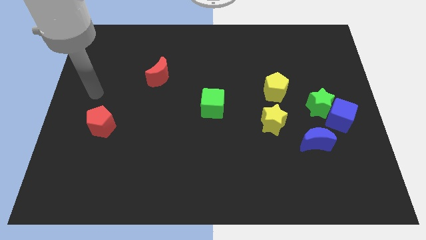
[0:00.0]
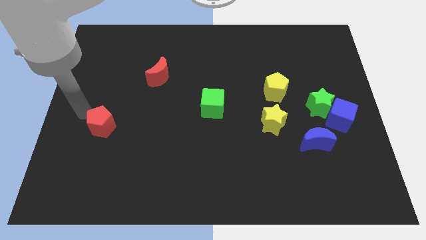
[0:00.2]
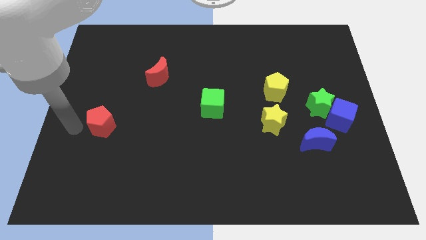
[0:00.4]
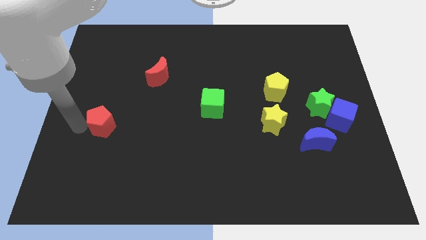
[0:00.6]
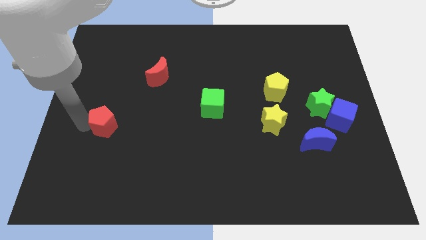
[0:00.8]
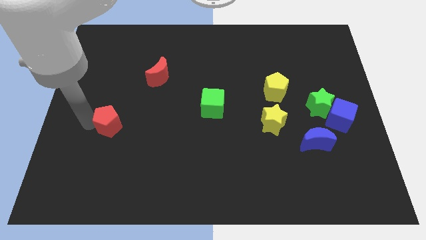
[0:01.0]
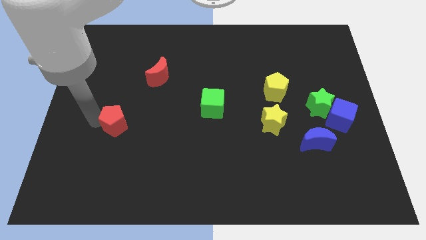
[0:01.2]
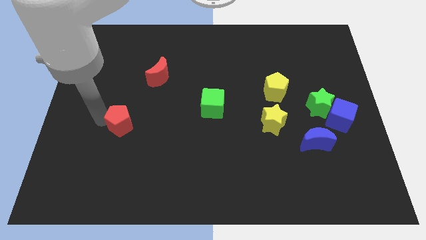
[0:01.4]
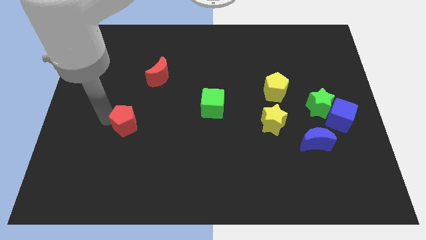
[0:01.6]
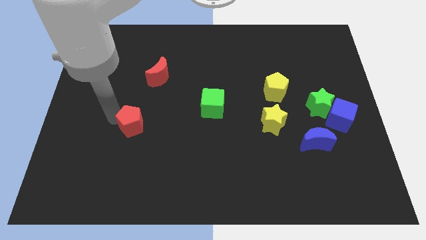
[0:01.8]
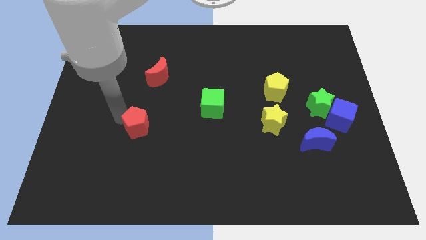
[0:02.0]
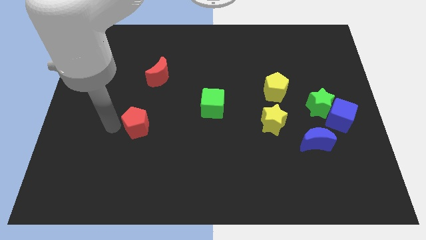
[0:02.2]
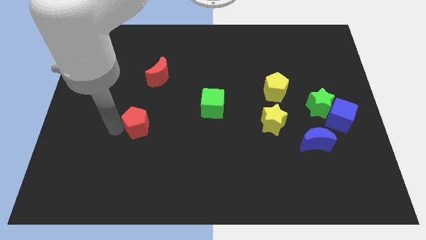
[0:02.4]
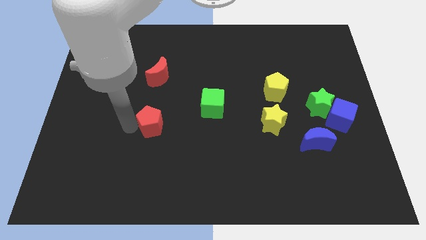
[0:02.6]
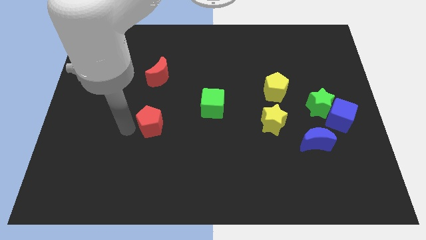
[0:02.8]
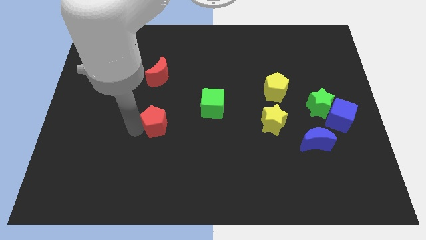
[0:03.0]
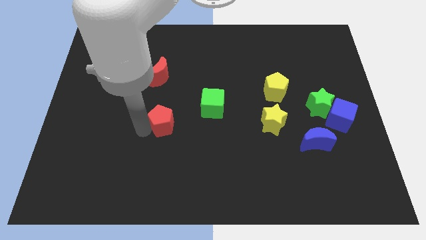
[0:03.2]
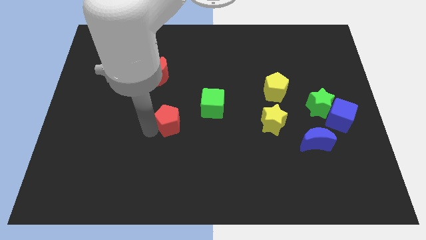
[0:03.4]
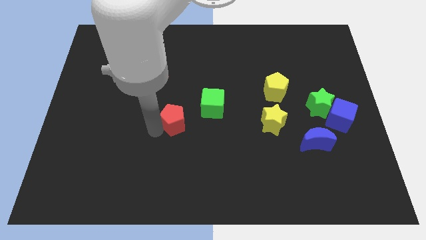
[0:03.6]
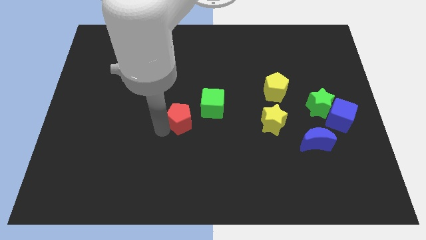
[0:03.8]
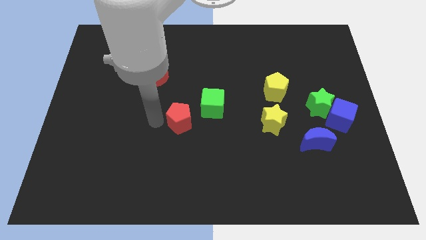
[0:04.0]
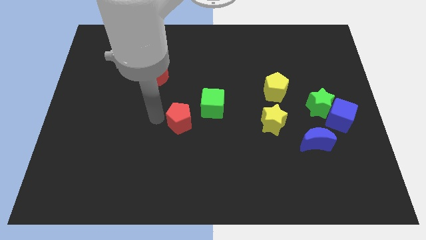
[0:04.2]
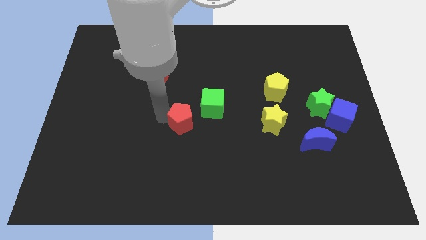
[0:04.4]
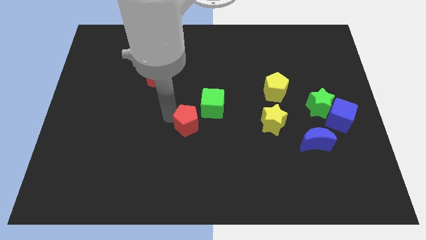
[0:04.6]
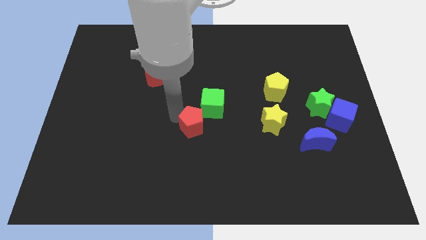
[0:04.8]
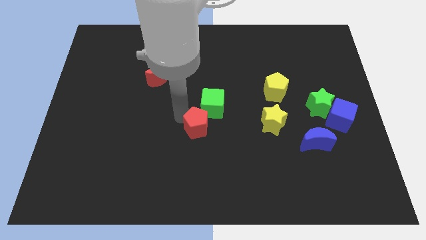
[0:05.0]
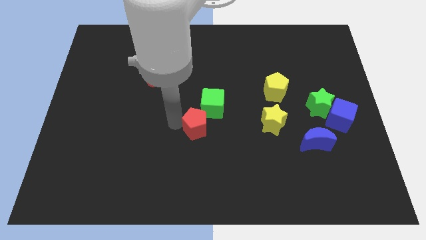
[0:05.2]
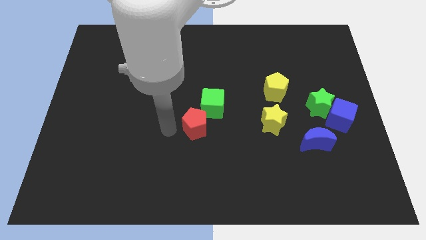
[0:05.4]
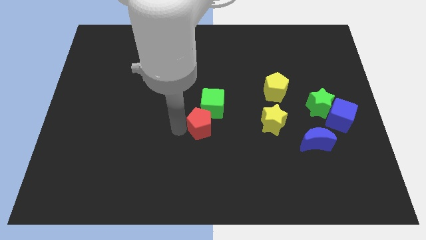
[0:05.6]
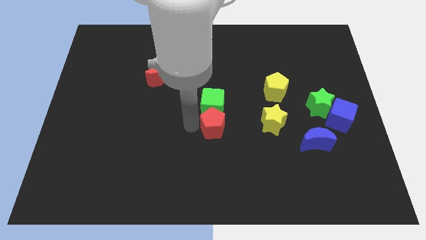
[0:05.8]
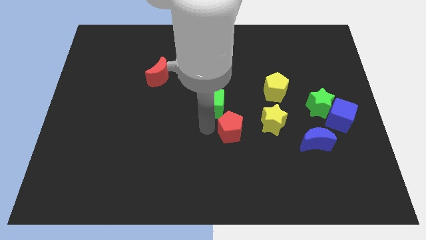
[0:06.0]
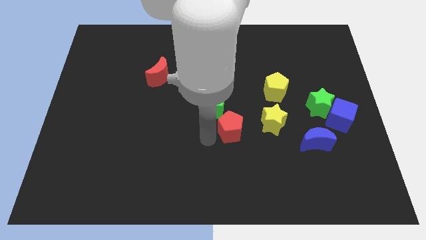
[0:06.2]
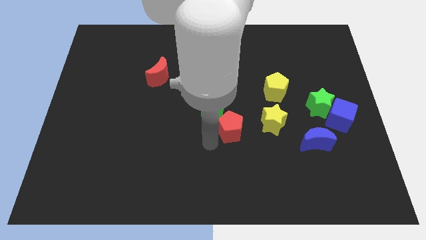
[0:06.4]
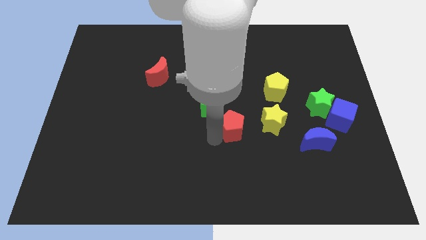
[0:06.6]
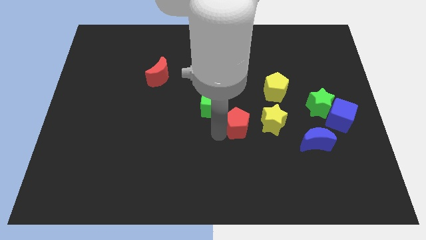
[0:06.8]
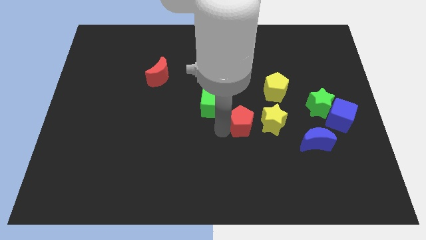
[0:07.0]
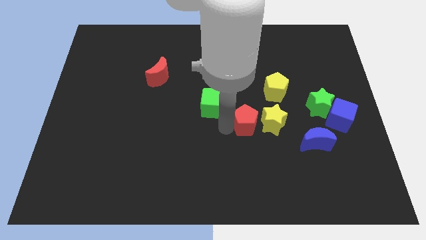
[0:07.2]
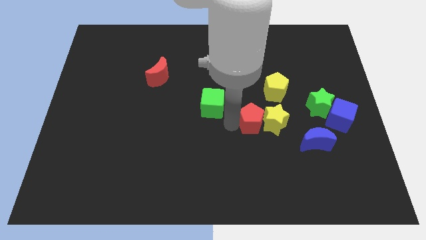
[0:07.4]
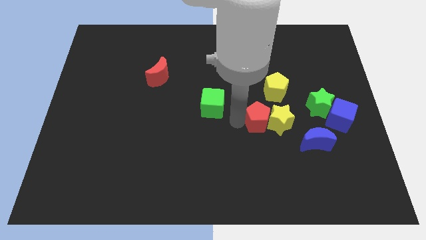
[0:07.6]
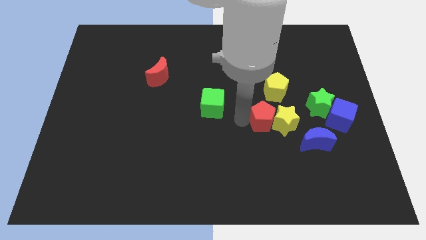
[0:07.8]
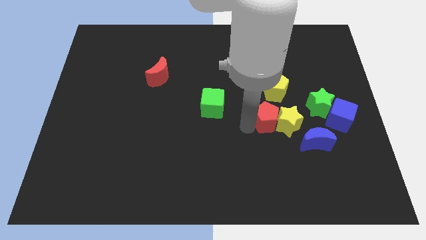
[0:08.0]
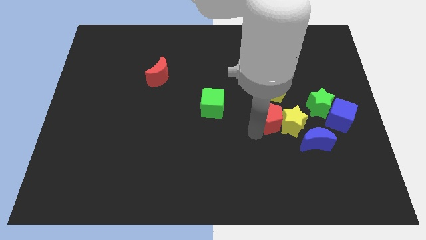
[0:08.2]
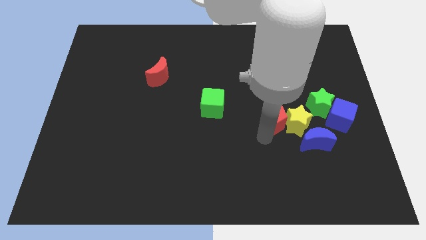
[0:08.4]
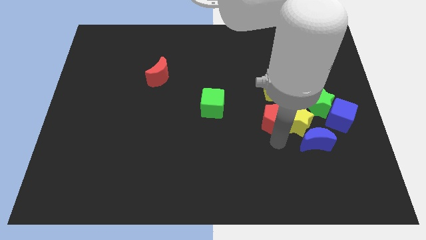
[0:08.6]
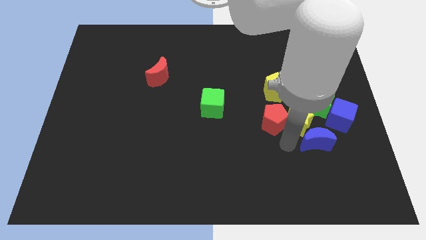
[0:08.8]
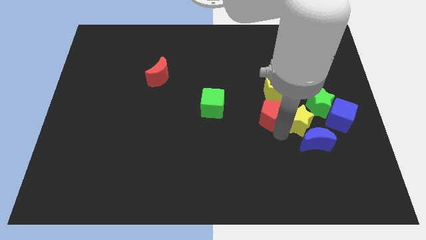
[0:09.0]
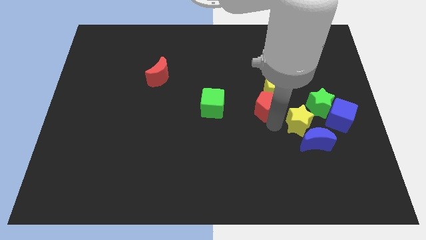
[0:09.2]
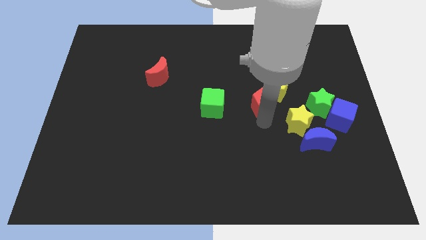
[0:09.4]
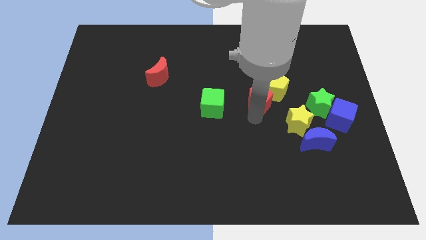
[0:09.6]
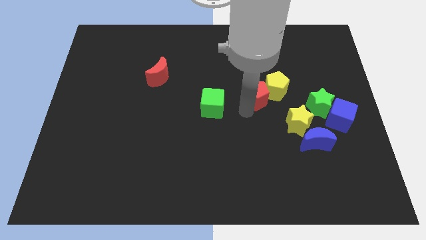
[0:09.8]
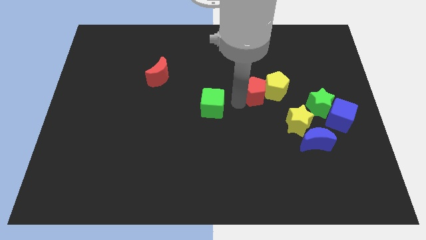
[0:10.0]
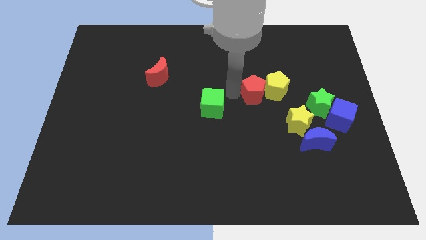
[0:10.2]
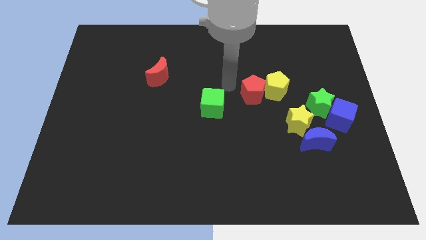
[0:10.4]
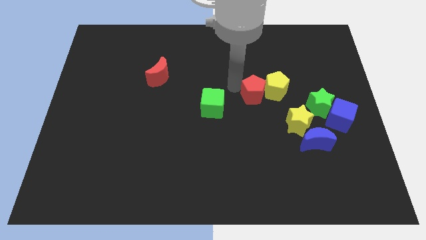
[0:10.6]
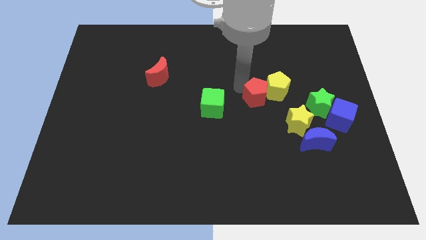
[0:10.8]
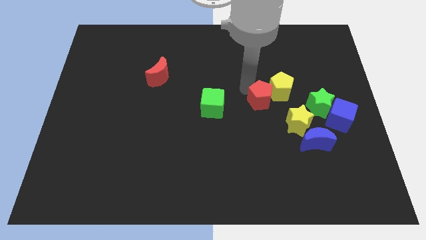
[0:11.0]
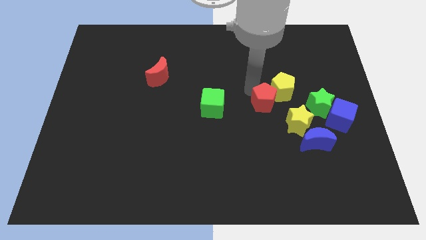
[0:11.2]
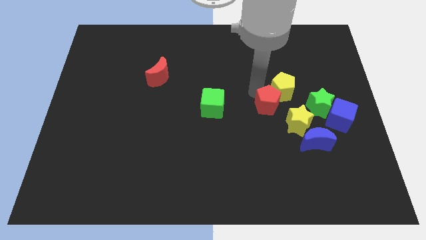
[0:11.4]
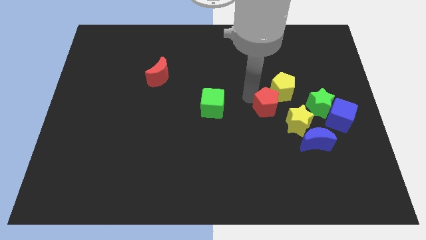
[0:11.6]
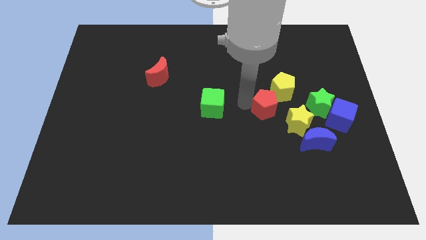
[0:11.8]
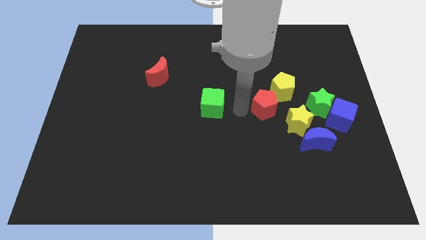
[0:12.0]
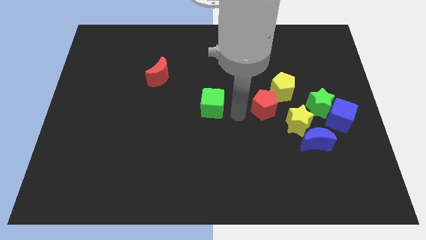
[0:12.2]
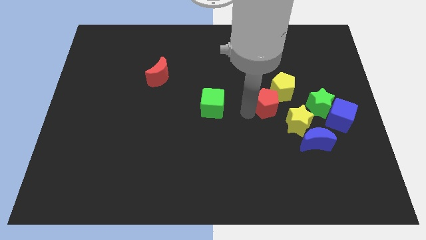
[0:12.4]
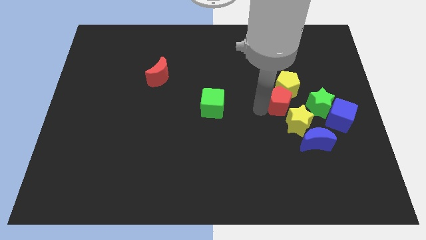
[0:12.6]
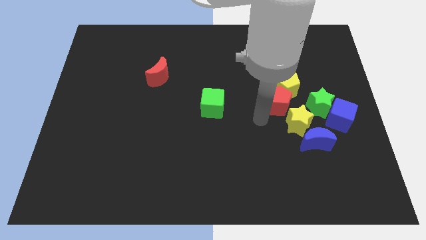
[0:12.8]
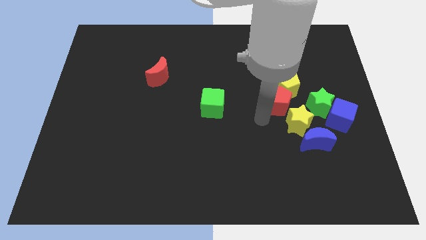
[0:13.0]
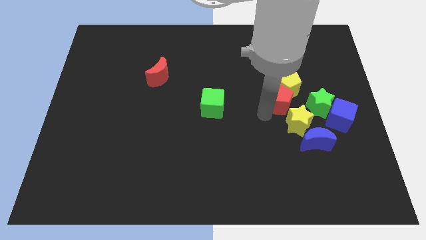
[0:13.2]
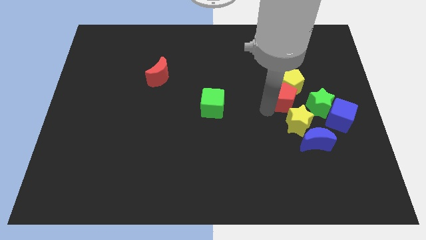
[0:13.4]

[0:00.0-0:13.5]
put the red pentagon to the top left side of the green star
